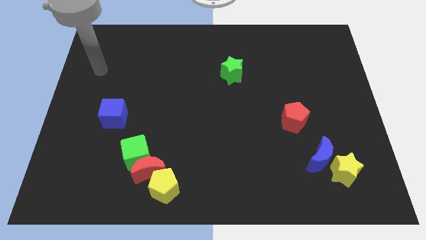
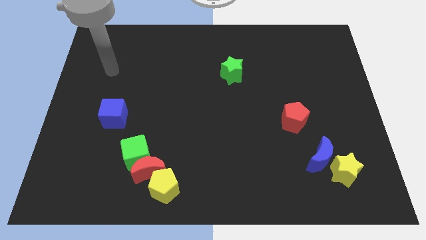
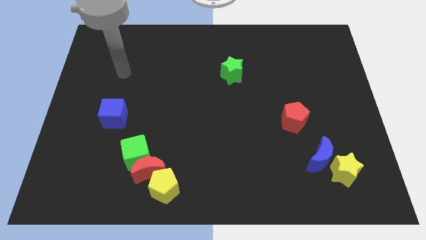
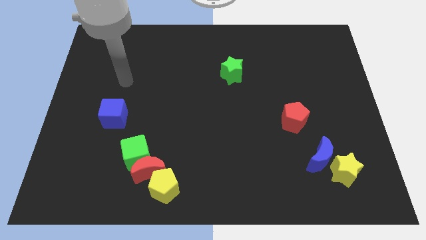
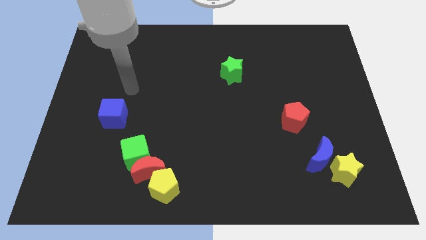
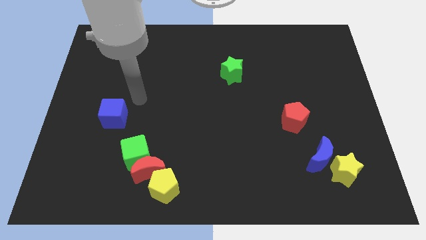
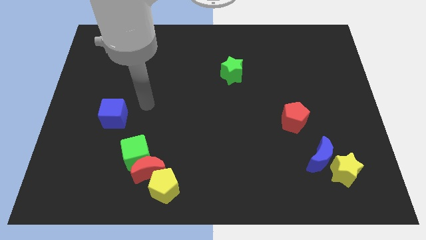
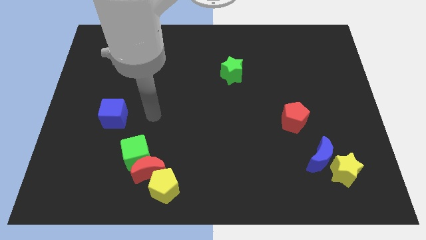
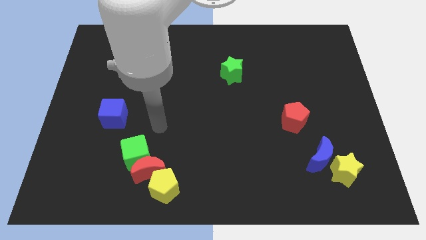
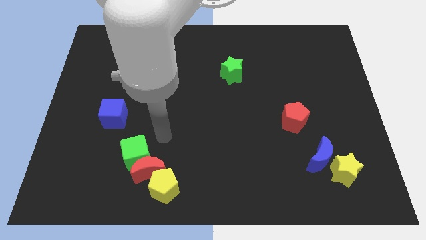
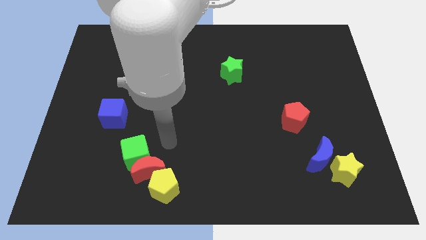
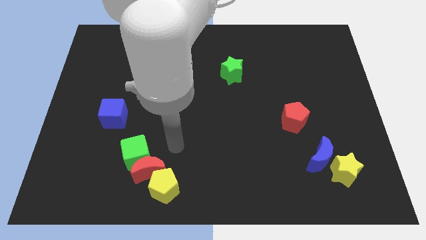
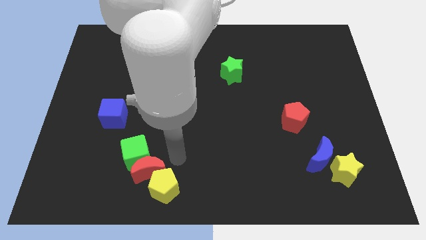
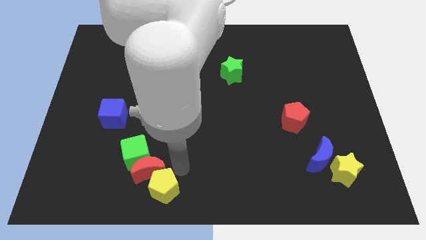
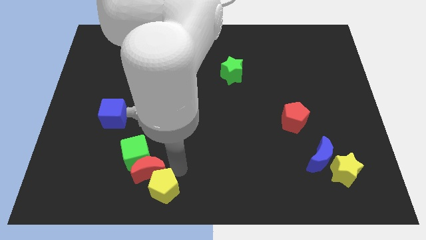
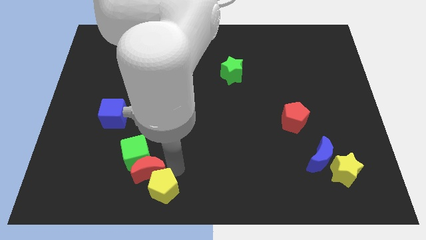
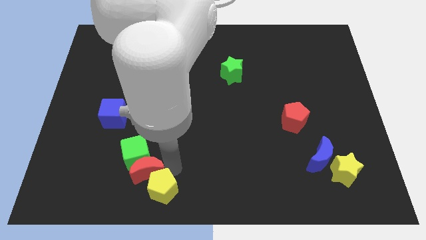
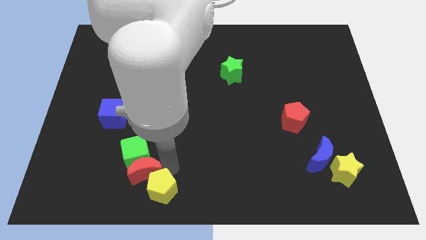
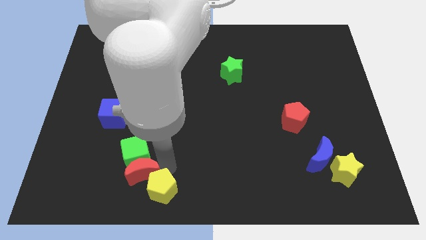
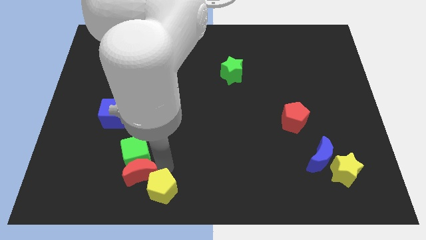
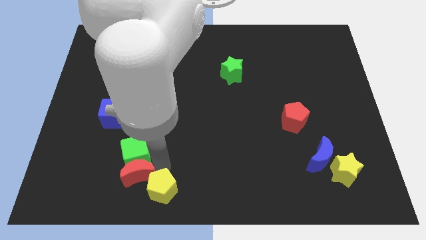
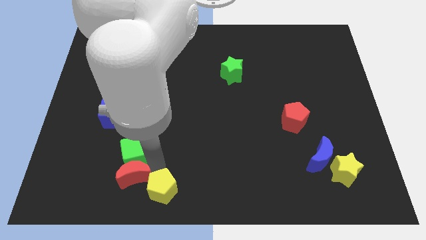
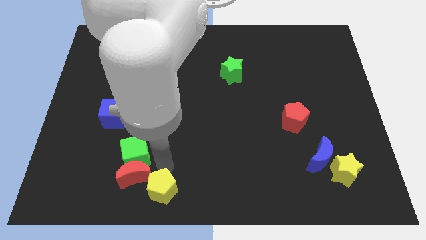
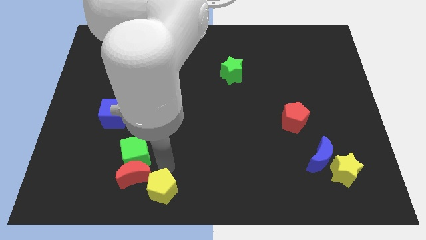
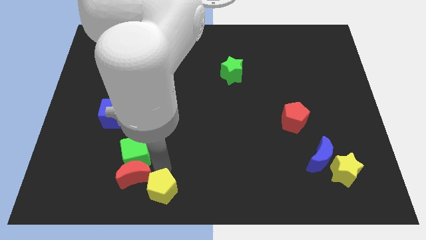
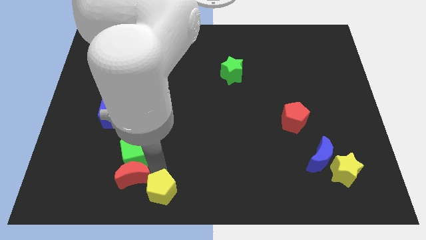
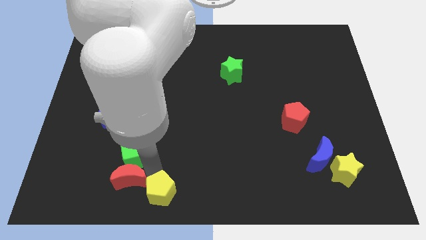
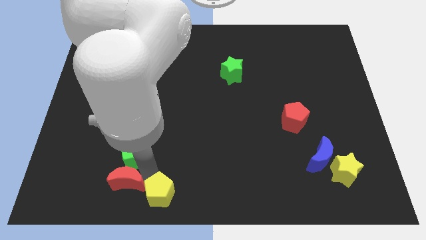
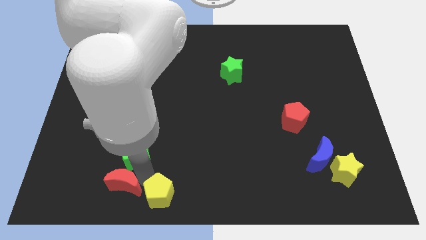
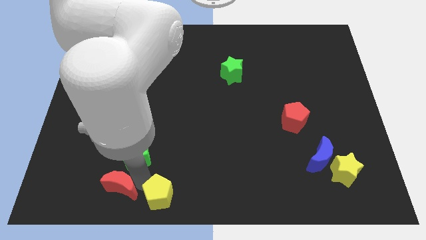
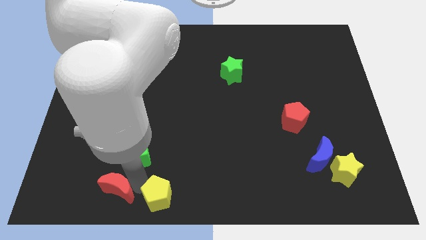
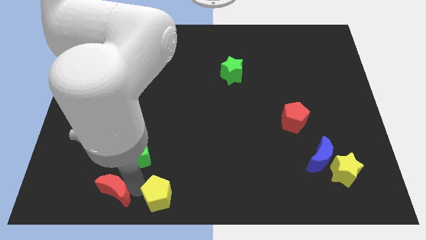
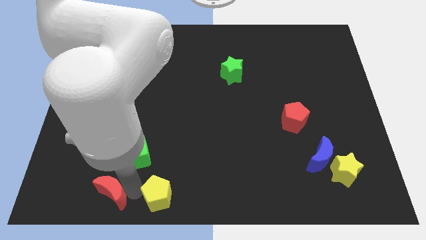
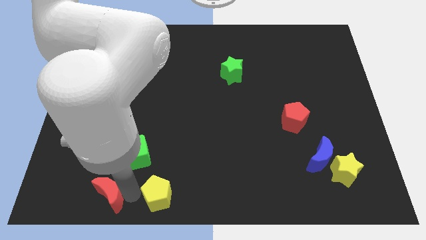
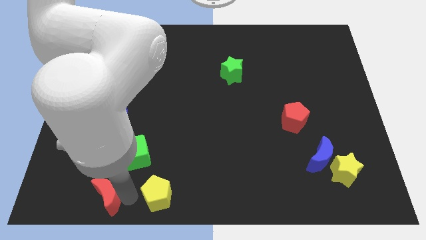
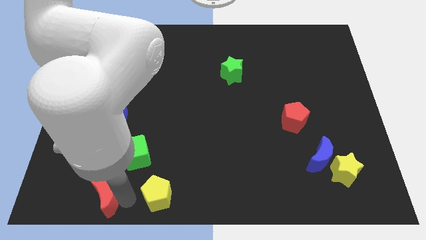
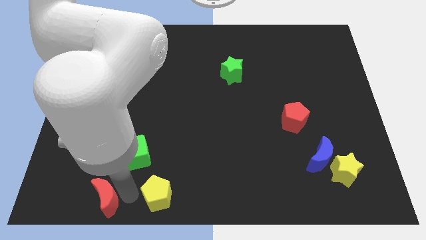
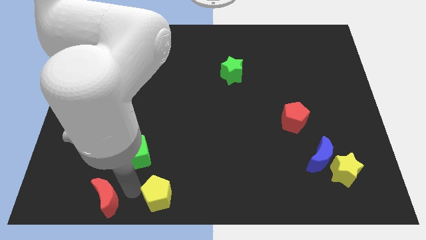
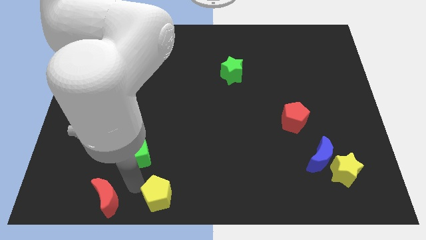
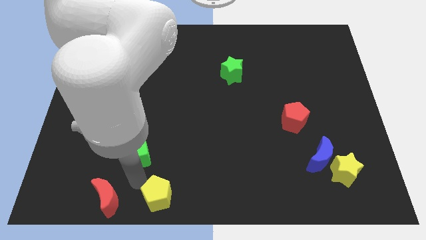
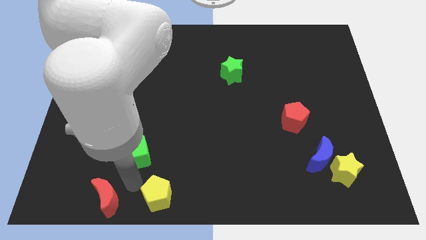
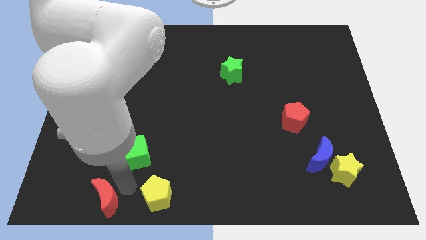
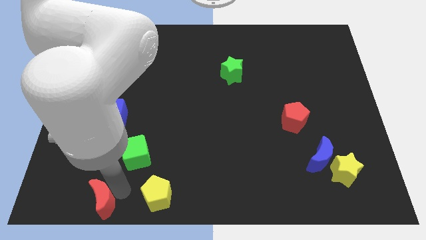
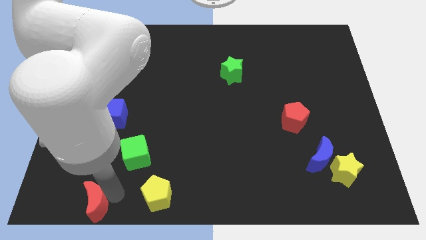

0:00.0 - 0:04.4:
separate the red moon from the green cube and yellow pentagon

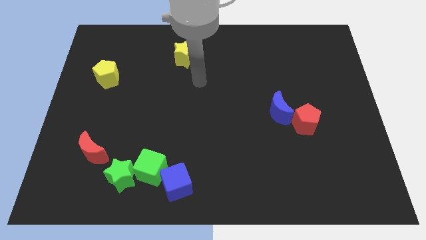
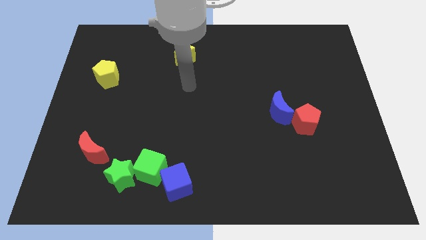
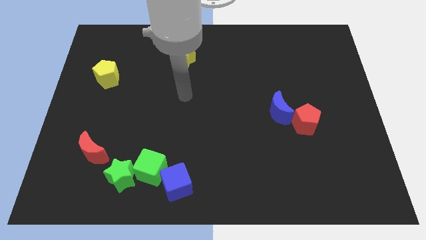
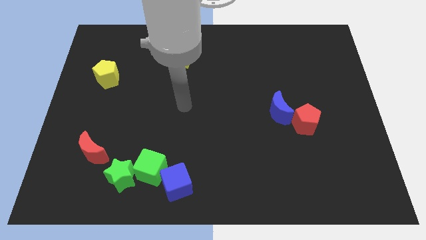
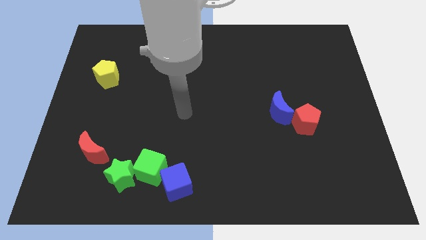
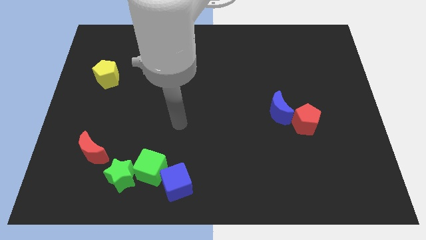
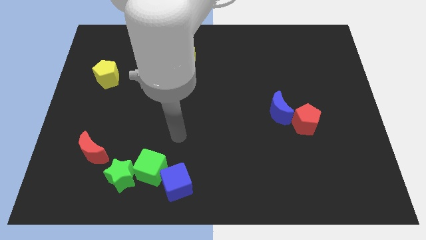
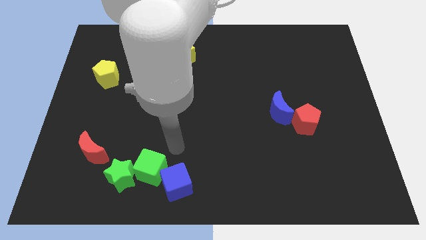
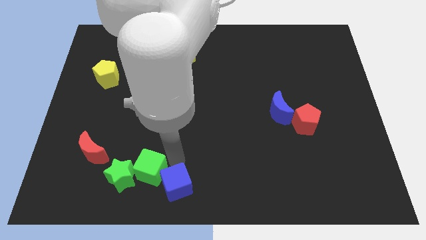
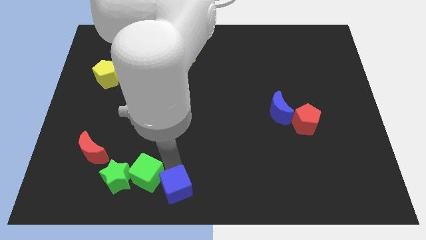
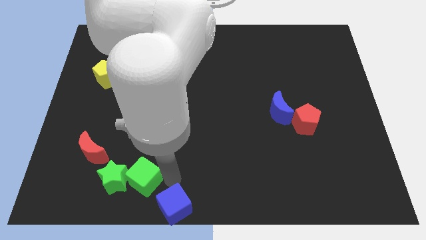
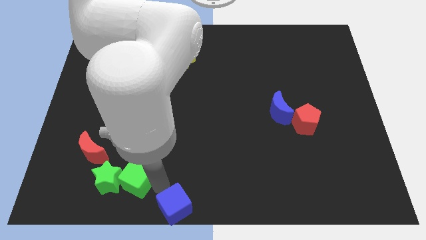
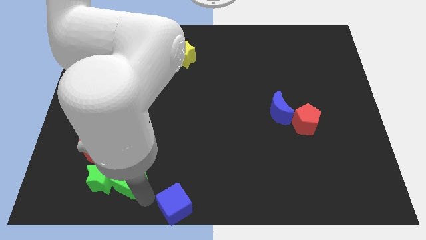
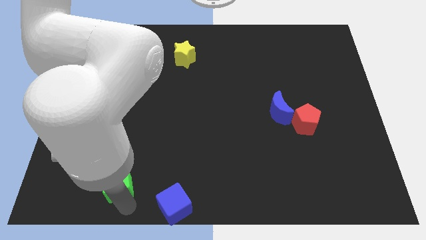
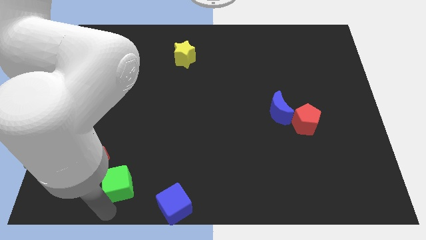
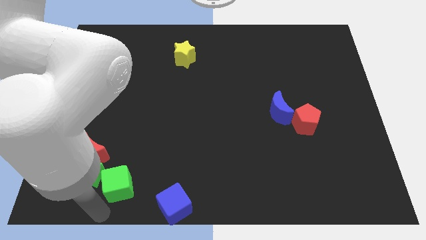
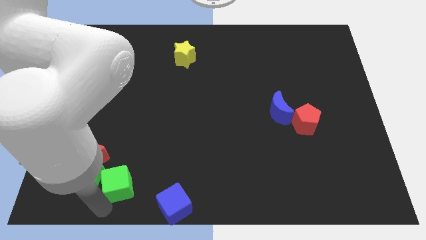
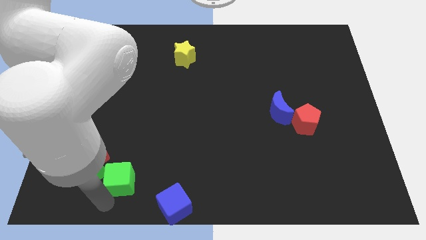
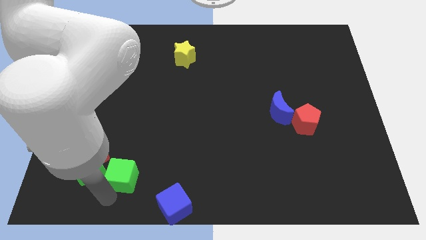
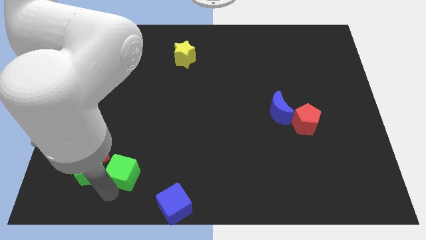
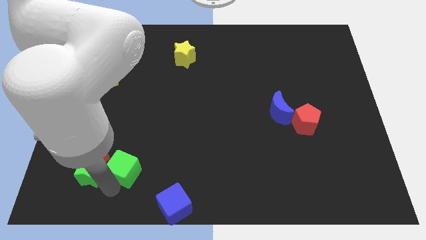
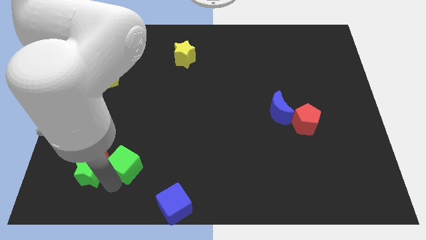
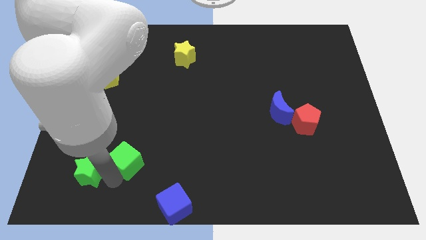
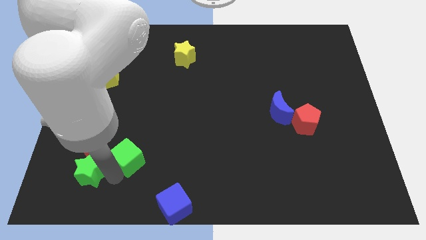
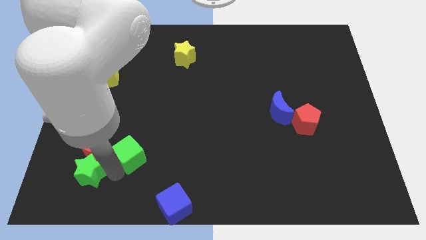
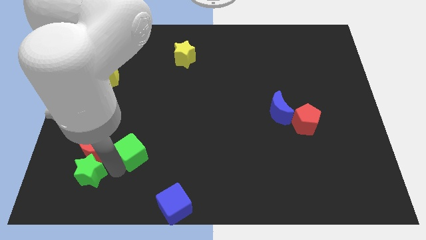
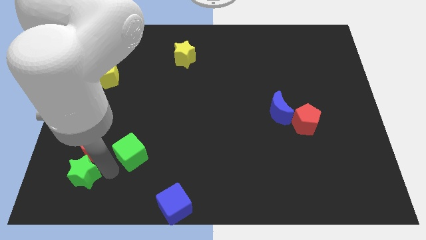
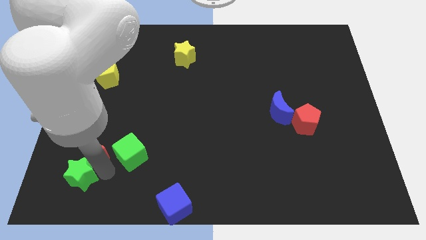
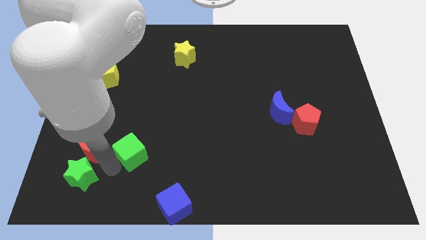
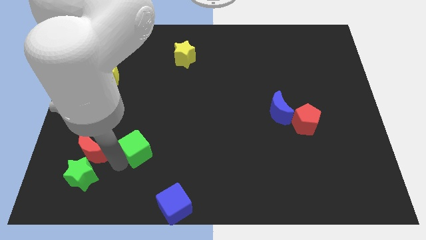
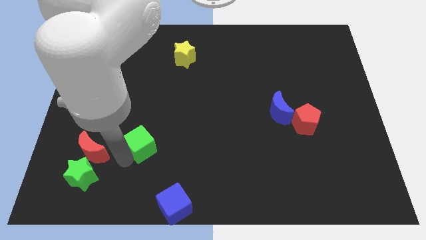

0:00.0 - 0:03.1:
pull the green cube apart from the green star and blue cube

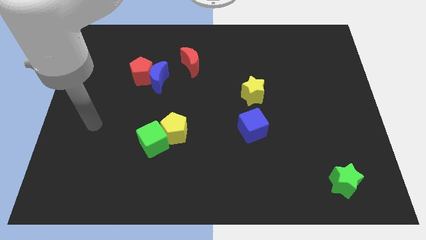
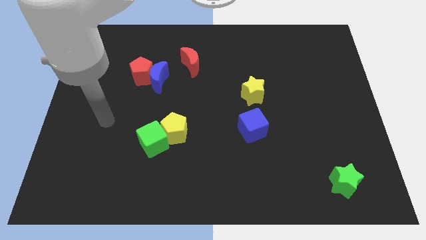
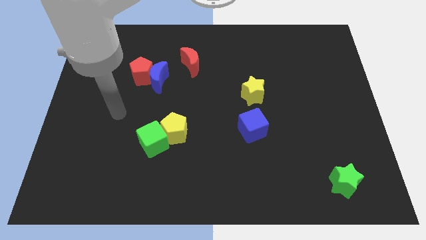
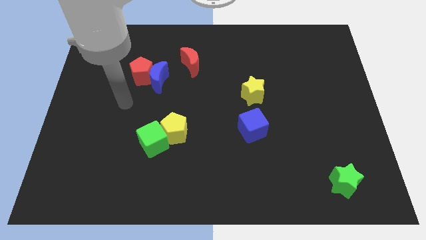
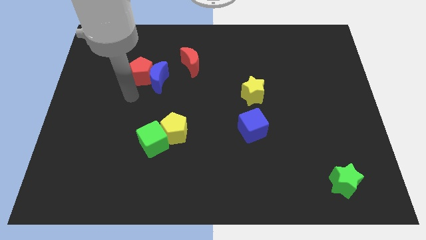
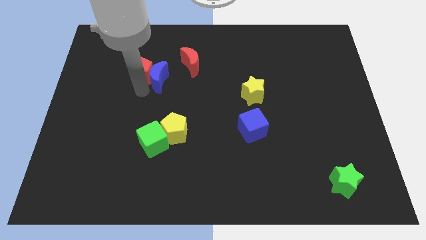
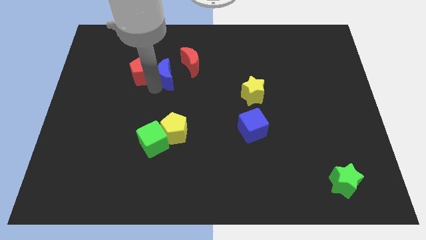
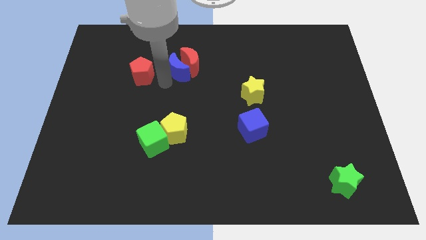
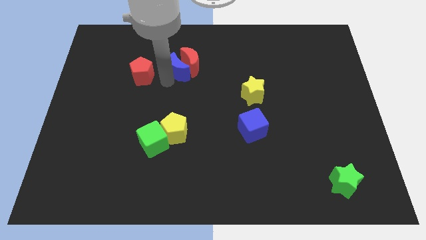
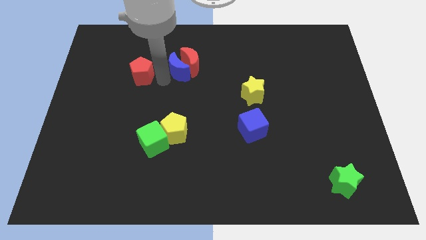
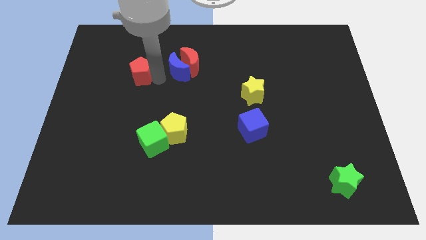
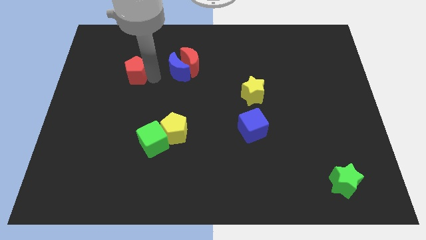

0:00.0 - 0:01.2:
separate the red pentagon from the blue moon

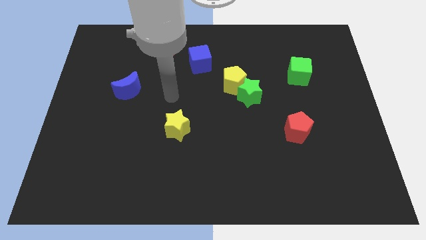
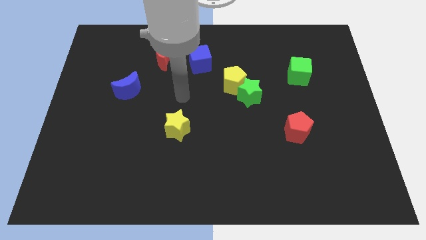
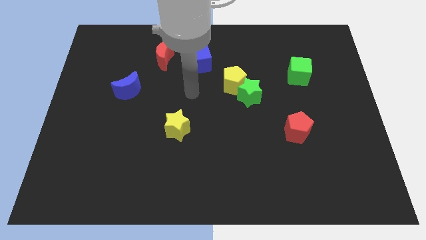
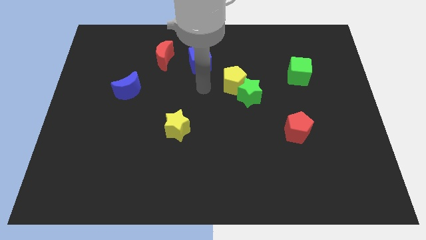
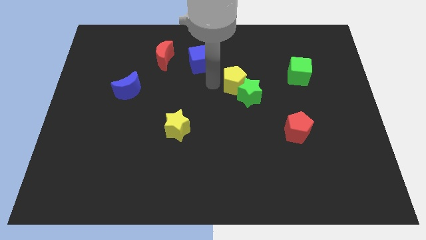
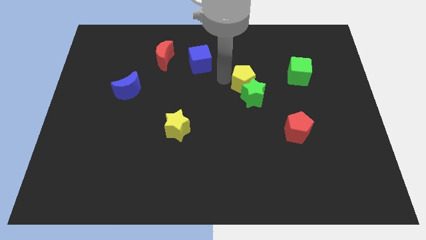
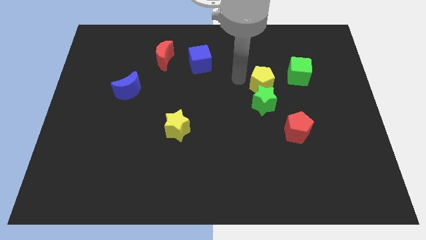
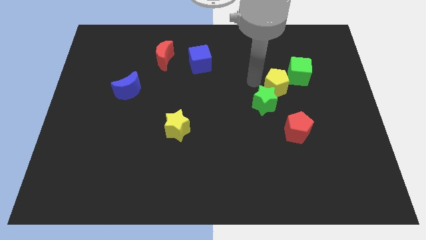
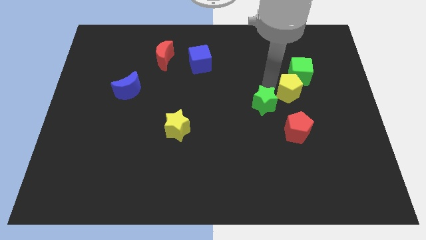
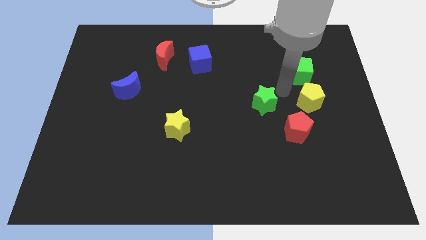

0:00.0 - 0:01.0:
pull the green star apart from the yellow pentagon
